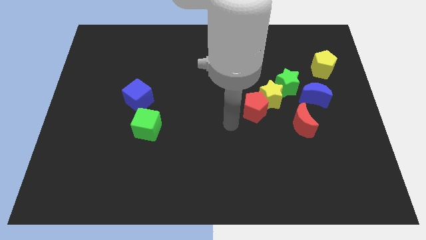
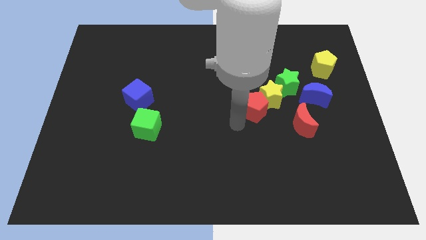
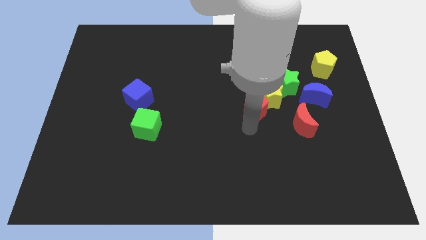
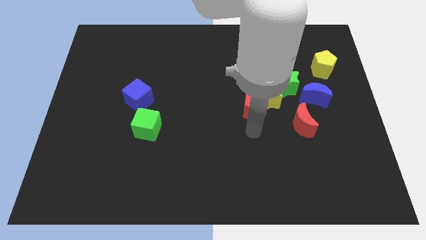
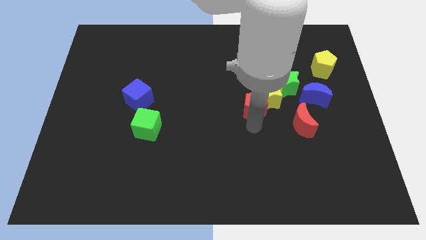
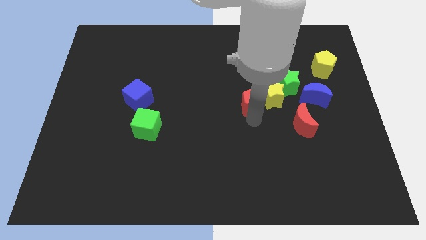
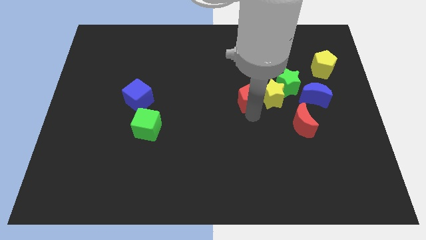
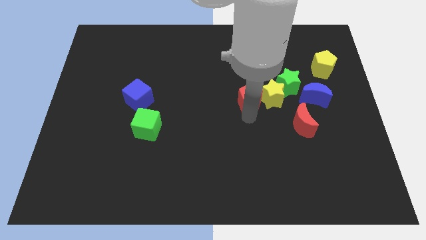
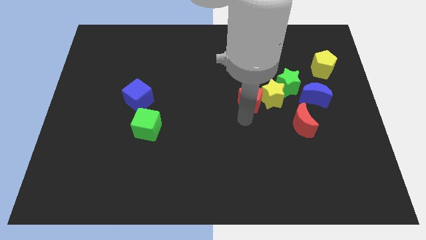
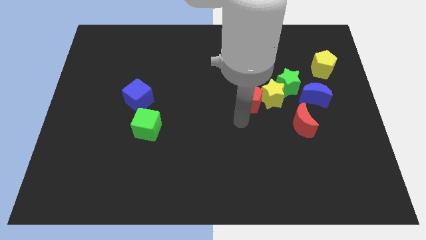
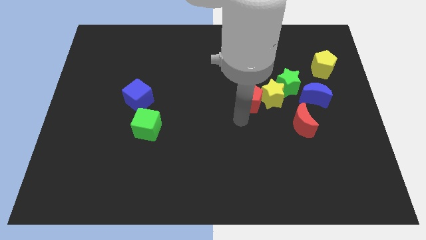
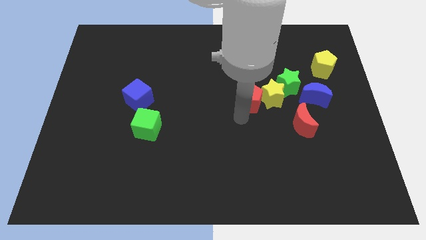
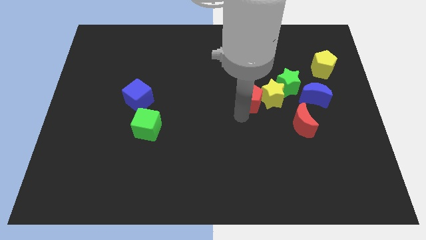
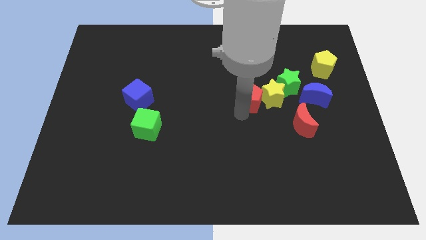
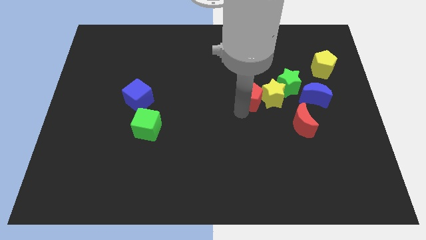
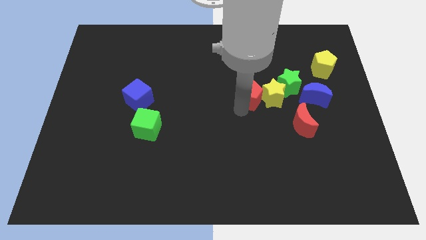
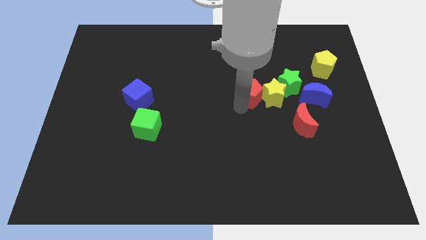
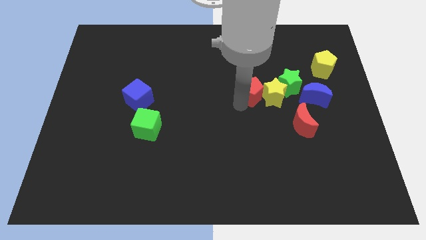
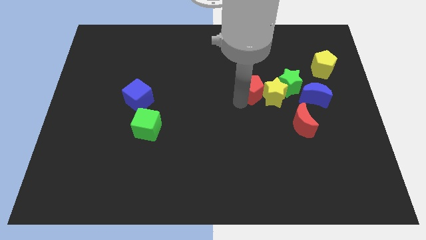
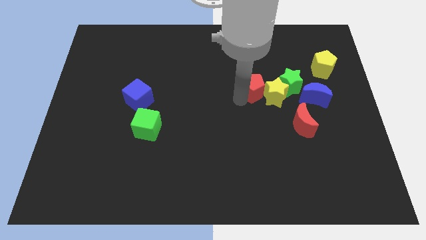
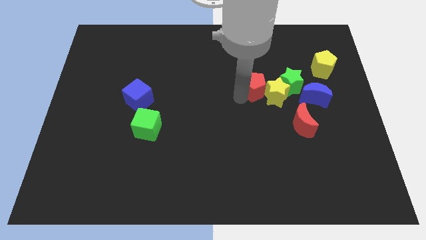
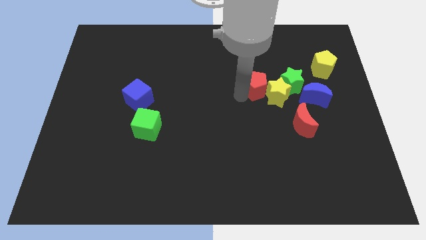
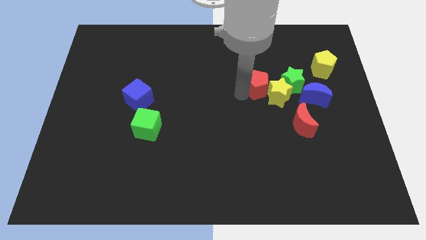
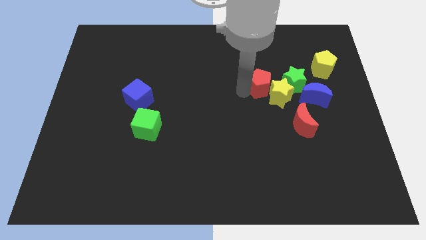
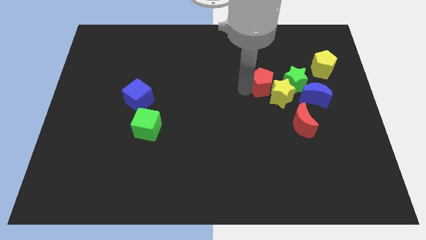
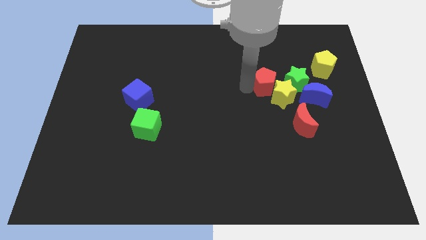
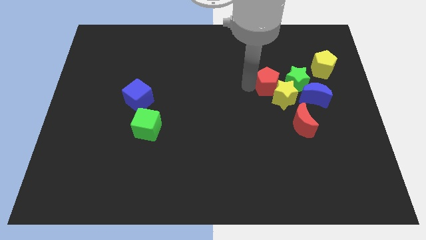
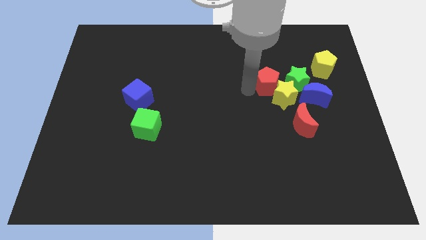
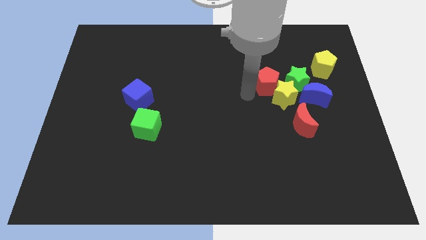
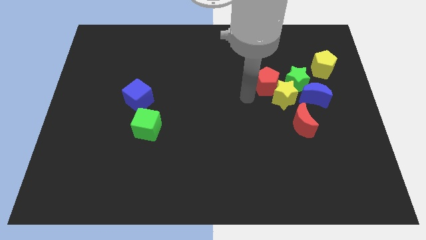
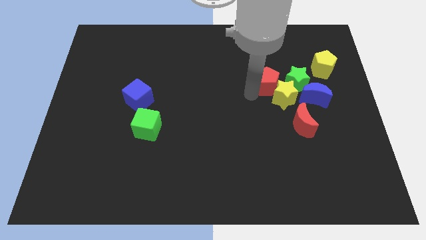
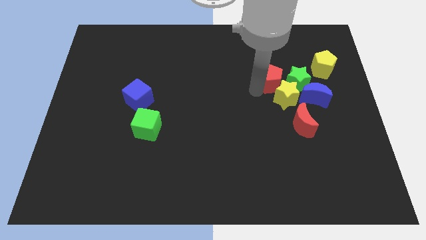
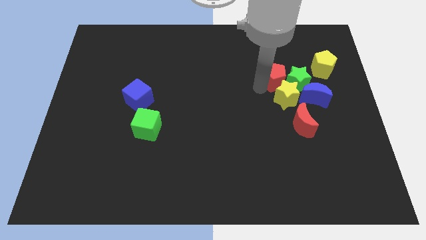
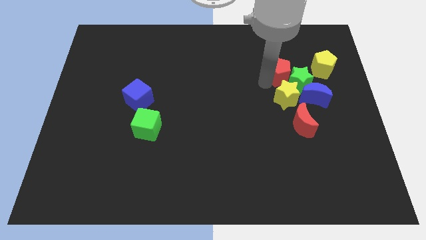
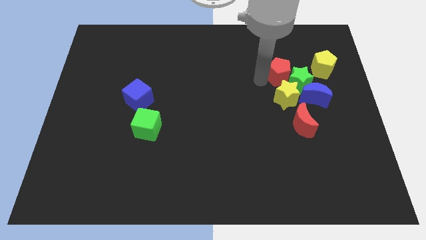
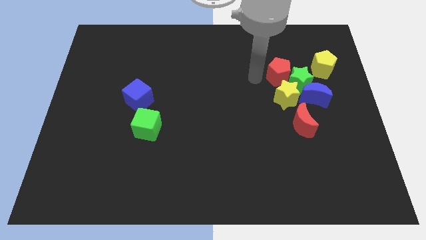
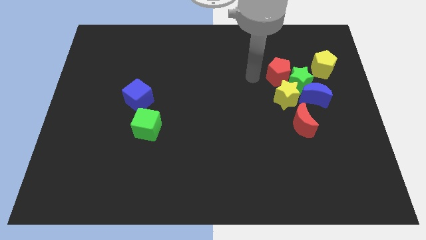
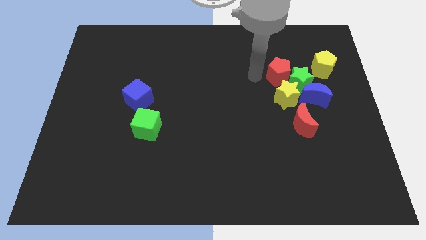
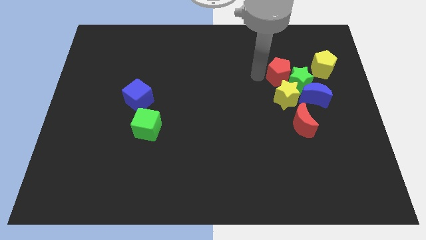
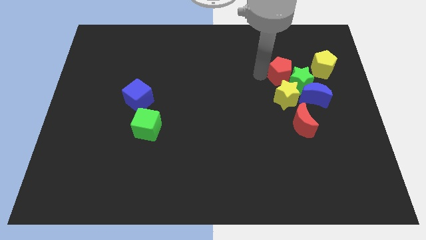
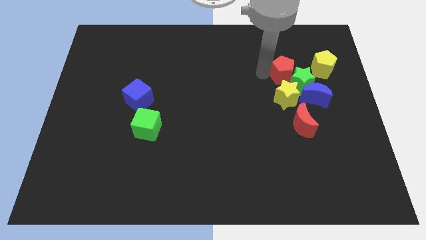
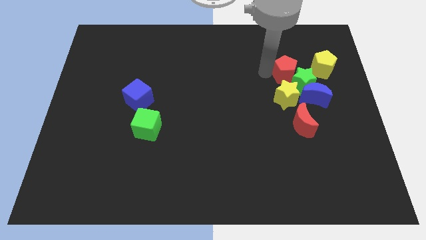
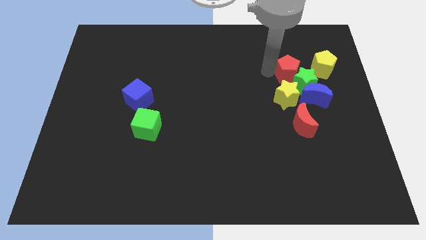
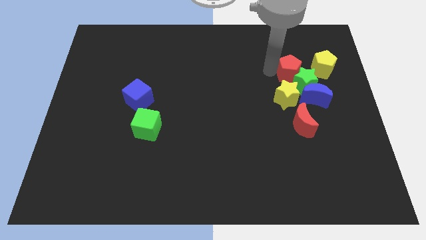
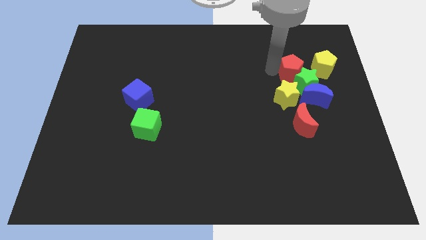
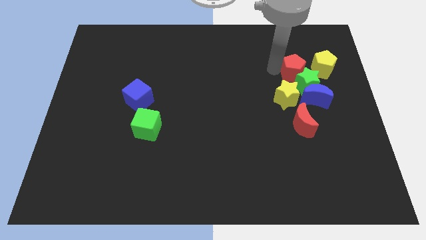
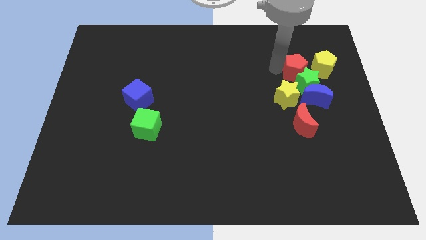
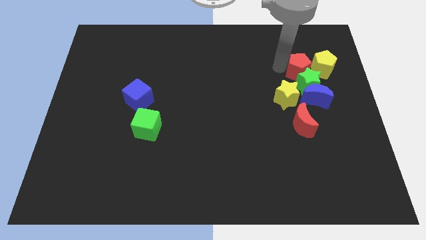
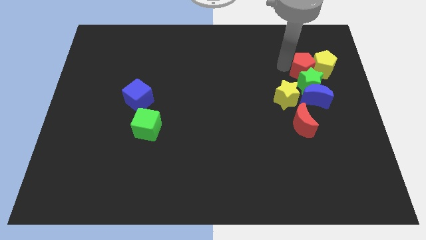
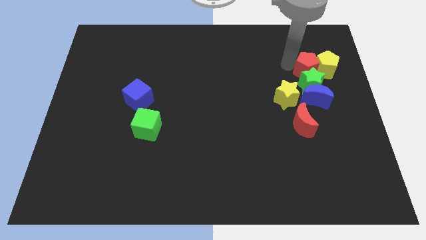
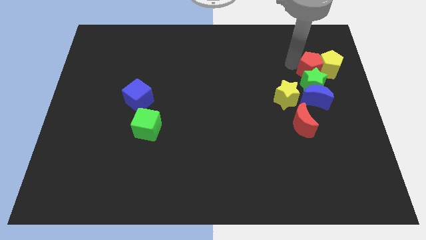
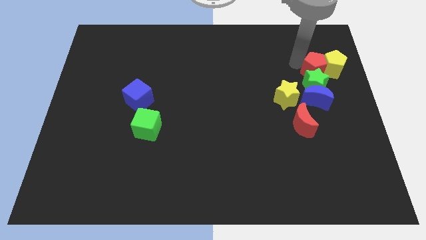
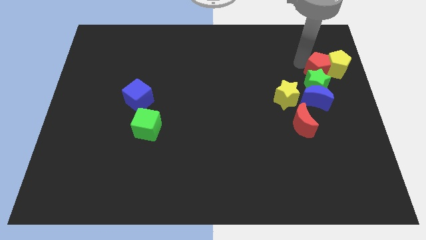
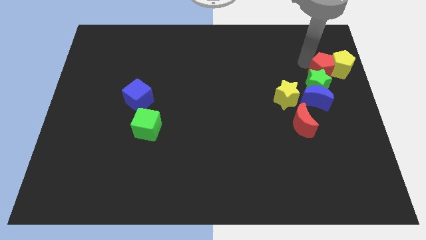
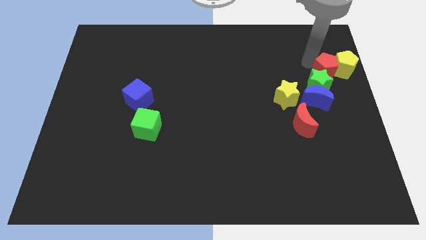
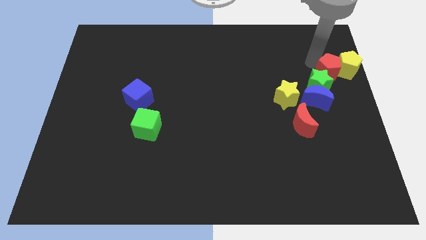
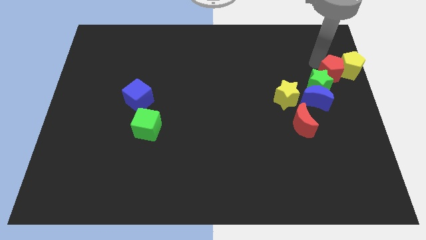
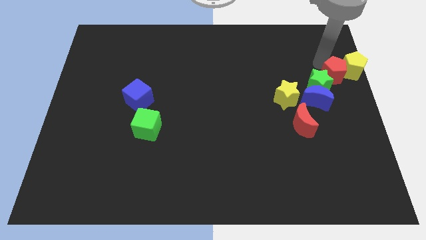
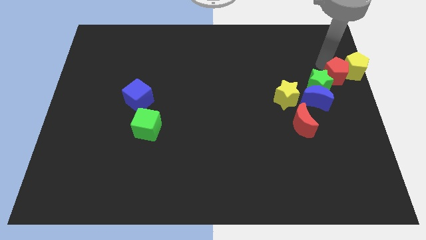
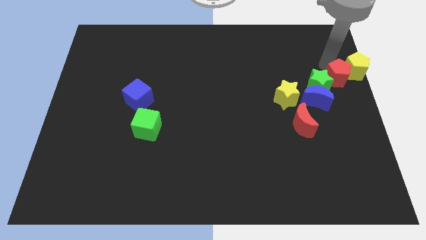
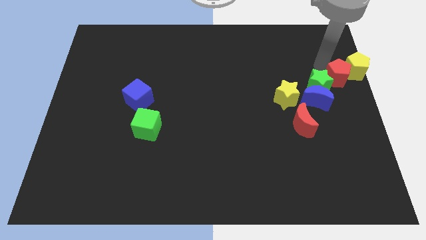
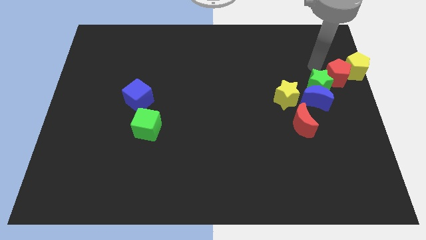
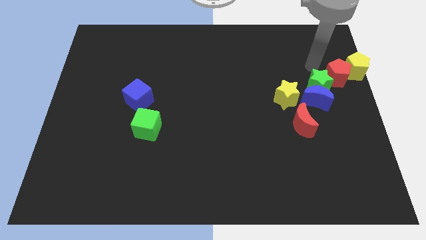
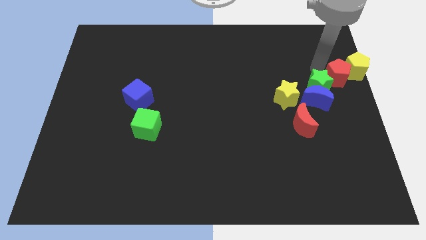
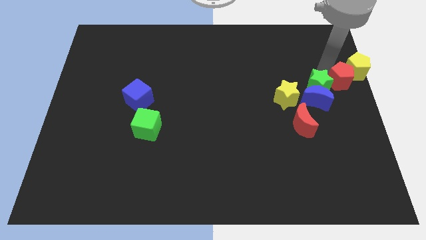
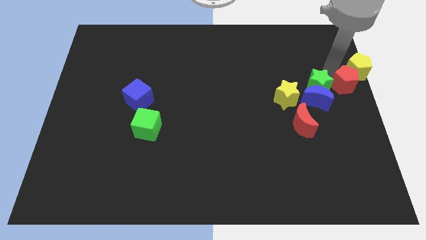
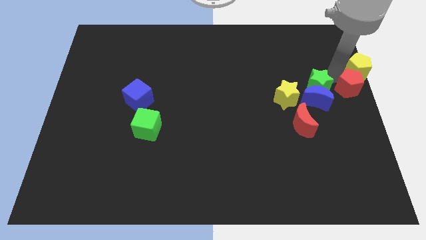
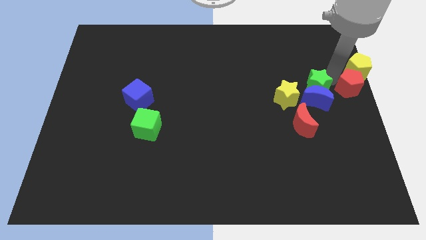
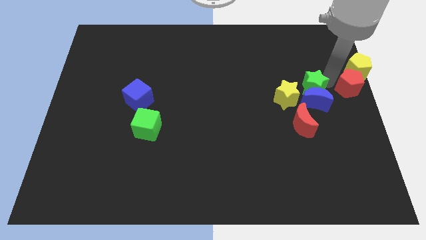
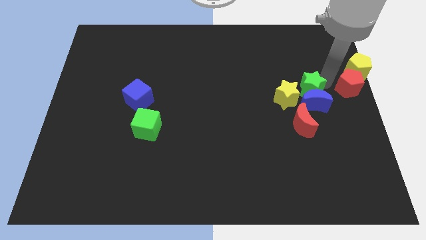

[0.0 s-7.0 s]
move the red pentagon right of the green star
